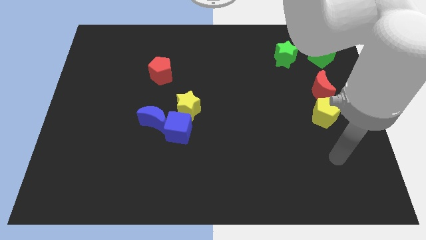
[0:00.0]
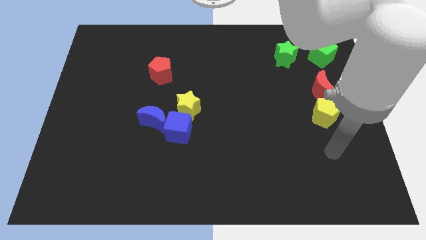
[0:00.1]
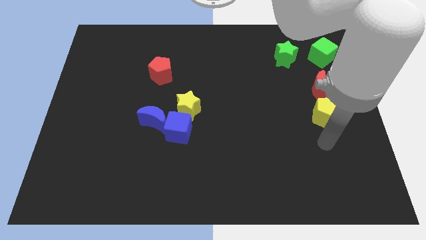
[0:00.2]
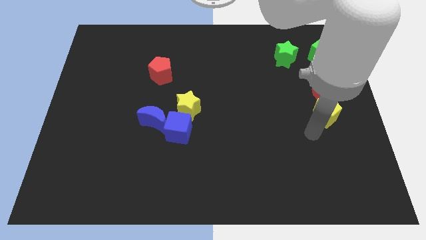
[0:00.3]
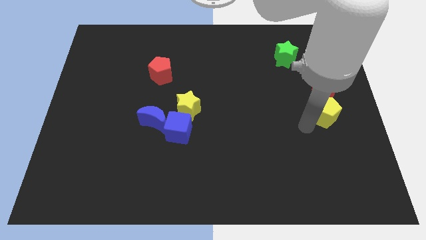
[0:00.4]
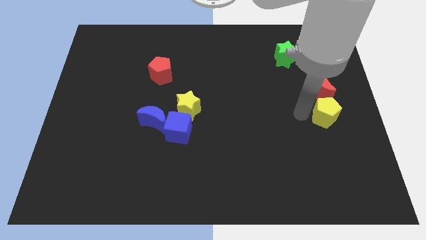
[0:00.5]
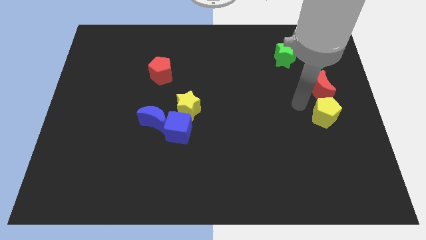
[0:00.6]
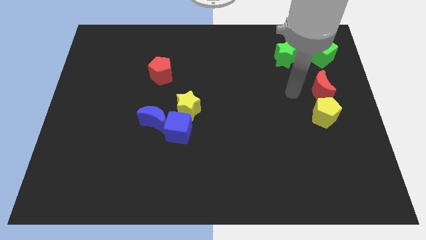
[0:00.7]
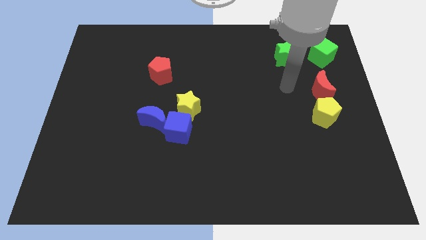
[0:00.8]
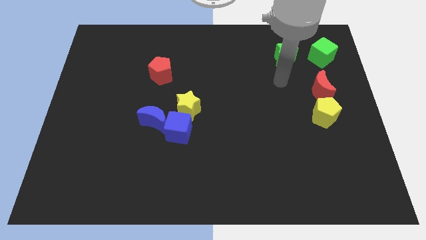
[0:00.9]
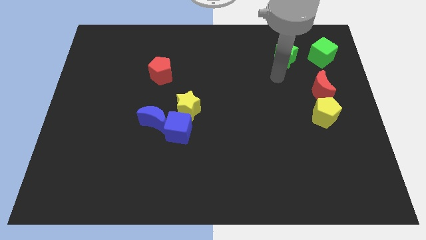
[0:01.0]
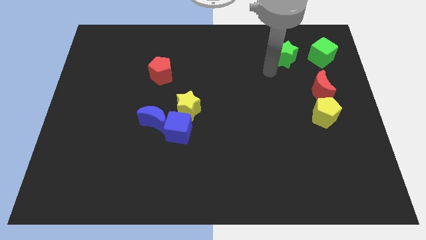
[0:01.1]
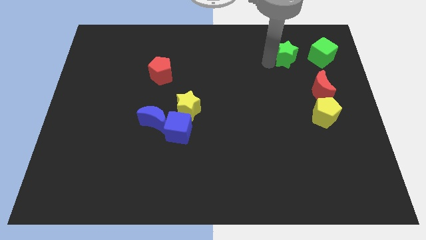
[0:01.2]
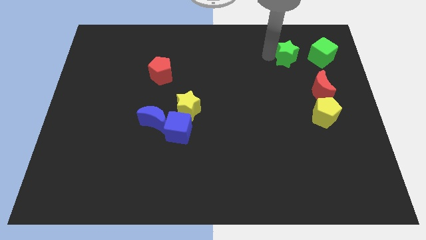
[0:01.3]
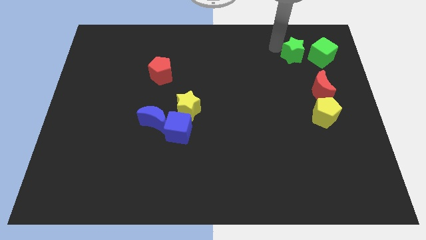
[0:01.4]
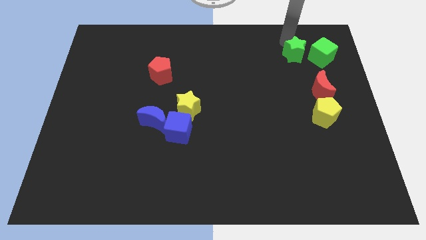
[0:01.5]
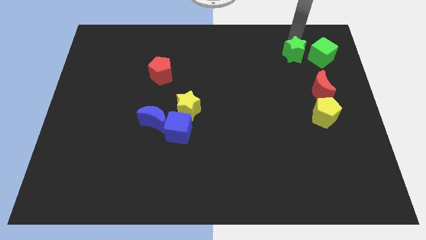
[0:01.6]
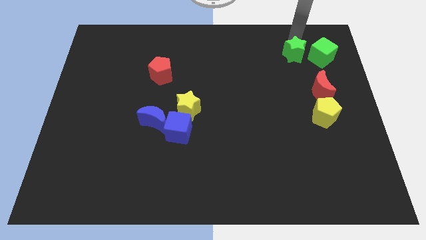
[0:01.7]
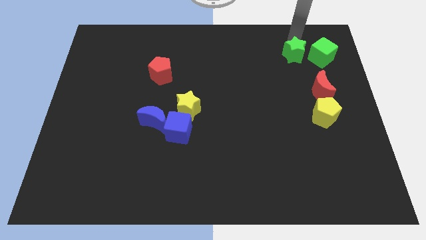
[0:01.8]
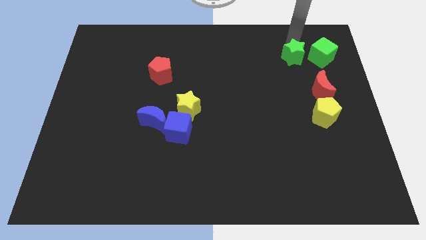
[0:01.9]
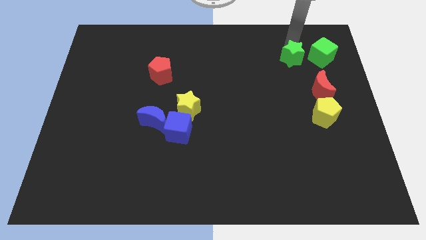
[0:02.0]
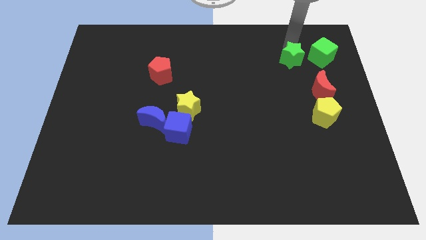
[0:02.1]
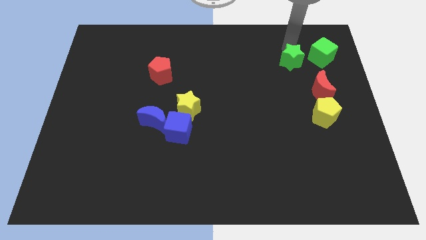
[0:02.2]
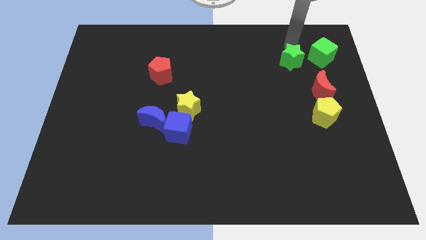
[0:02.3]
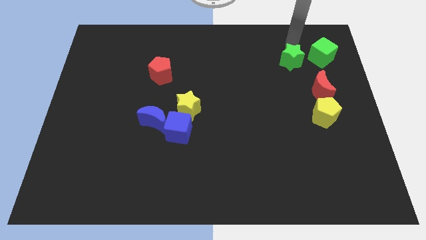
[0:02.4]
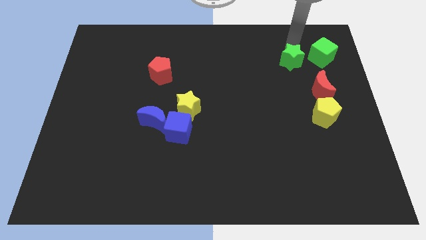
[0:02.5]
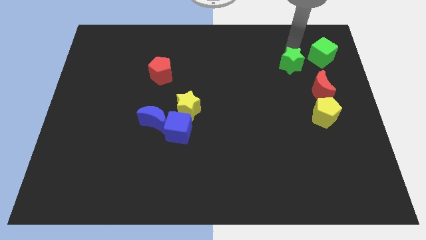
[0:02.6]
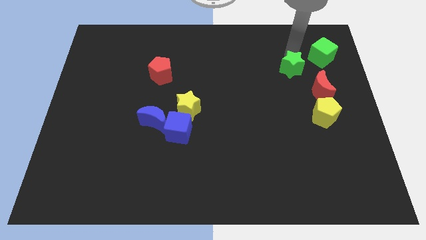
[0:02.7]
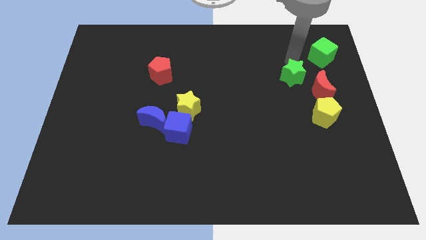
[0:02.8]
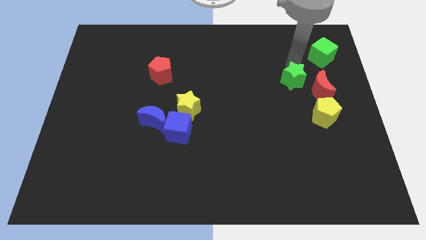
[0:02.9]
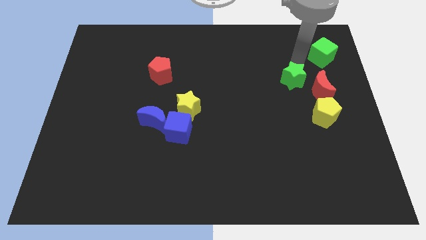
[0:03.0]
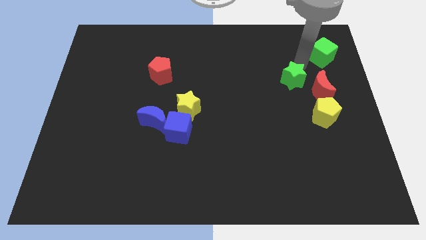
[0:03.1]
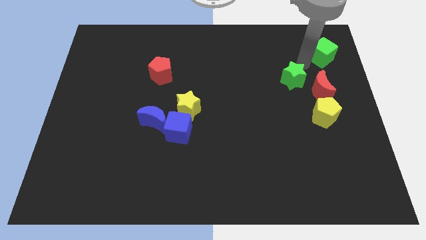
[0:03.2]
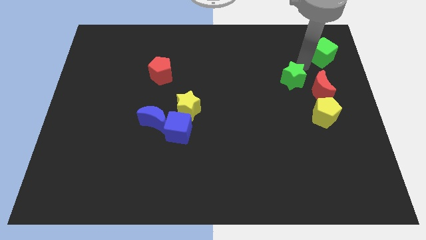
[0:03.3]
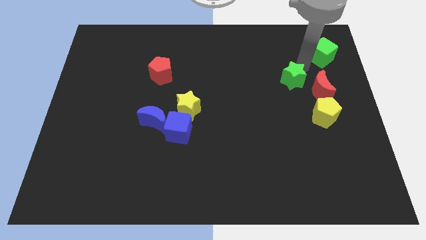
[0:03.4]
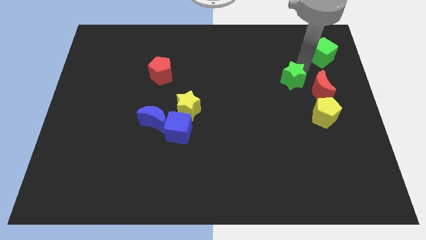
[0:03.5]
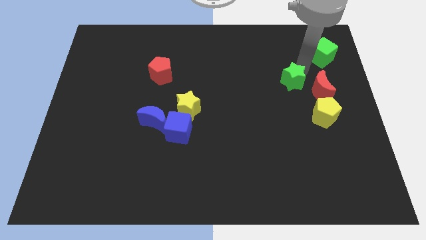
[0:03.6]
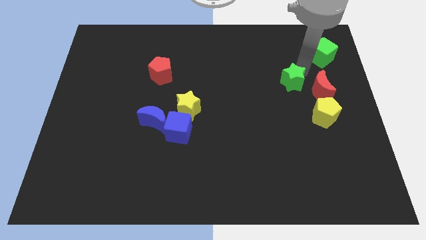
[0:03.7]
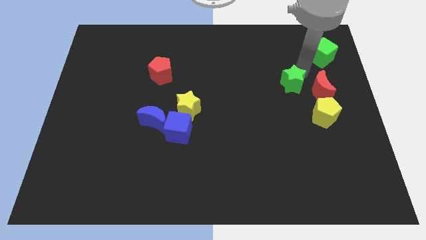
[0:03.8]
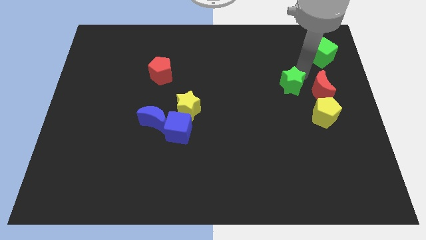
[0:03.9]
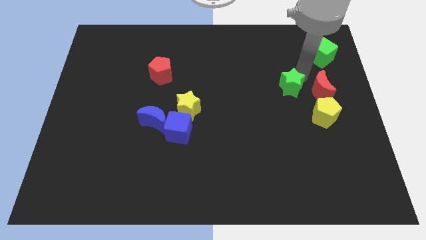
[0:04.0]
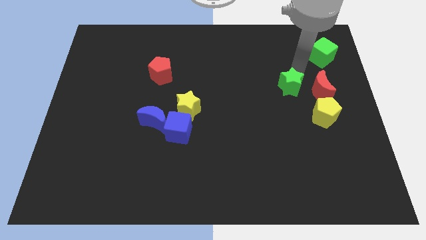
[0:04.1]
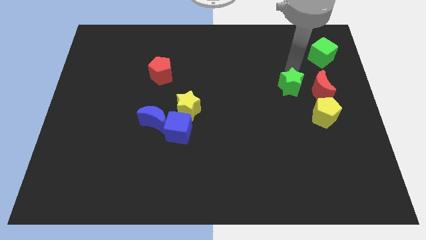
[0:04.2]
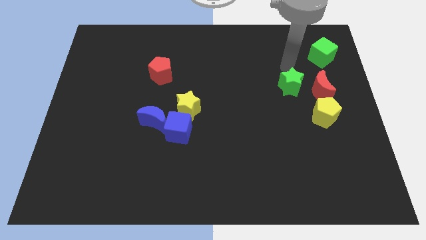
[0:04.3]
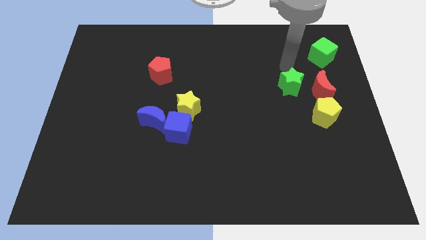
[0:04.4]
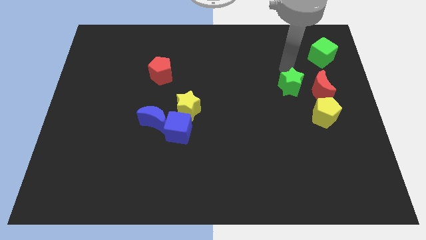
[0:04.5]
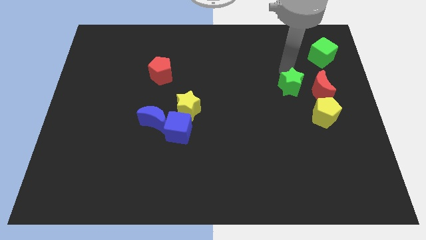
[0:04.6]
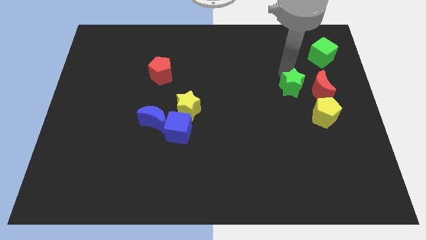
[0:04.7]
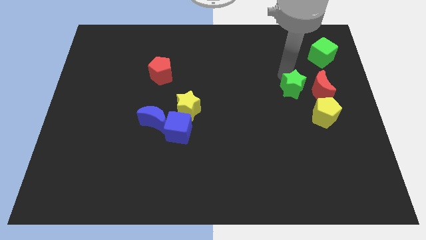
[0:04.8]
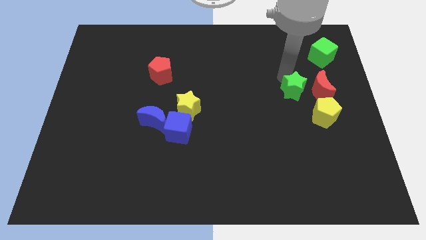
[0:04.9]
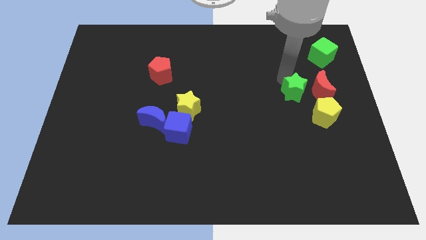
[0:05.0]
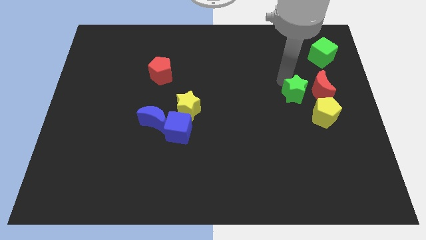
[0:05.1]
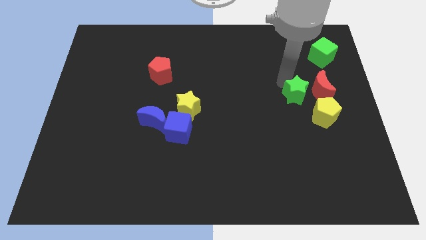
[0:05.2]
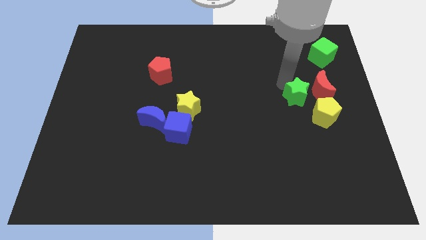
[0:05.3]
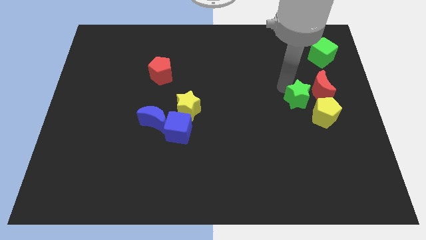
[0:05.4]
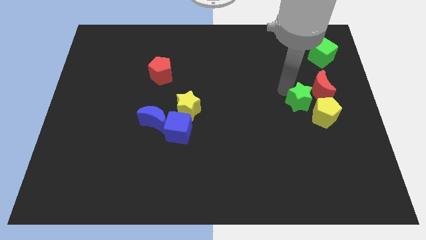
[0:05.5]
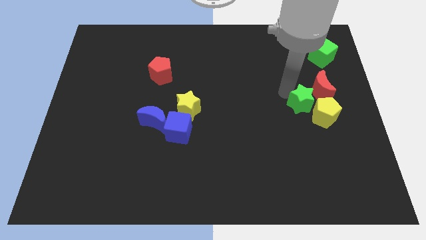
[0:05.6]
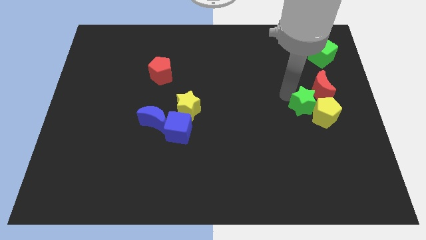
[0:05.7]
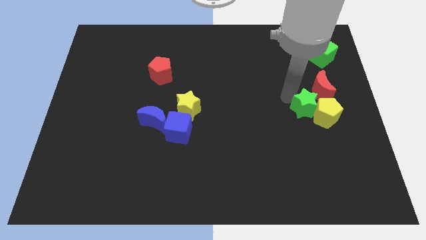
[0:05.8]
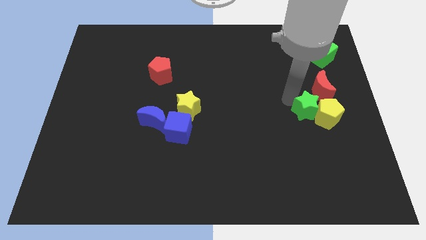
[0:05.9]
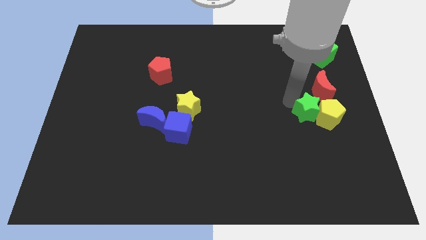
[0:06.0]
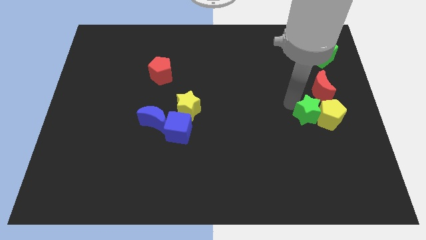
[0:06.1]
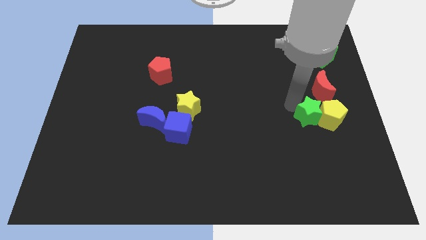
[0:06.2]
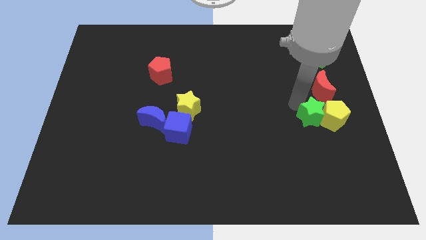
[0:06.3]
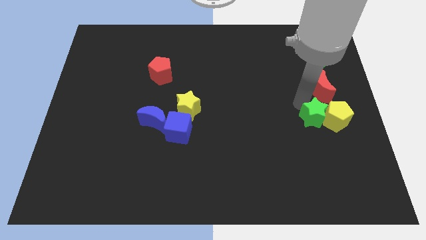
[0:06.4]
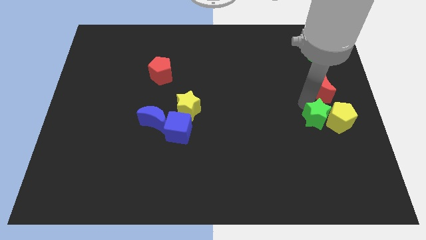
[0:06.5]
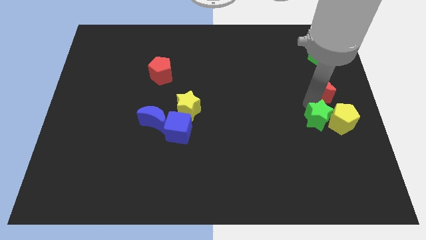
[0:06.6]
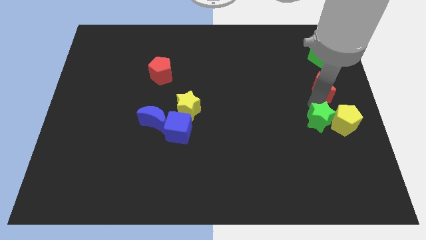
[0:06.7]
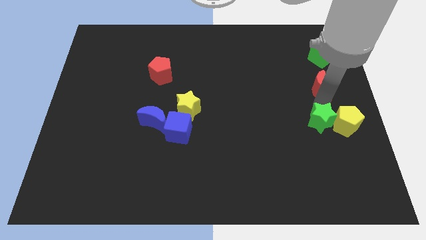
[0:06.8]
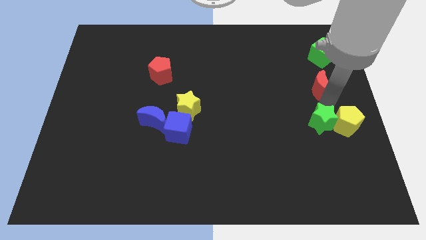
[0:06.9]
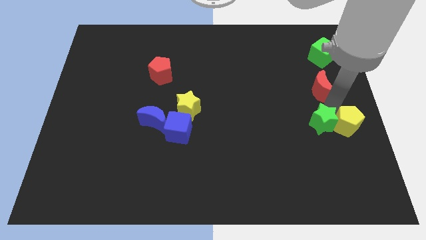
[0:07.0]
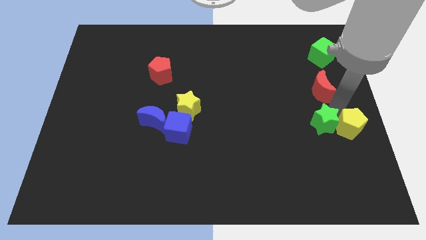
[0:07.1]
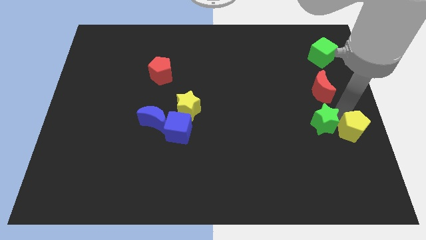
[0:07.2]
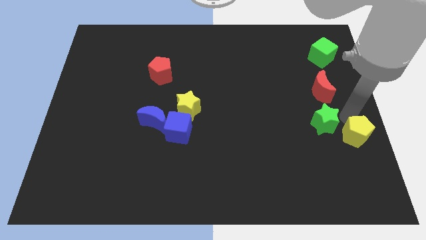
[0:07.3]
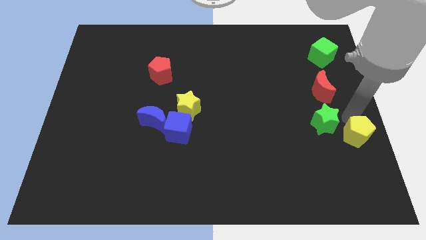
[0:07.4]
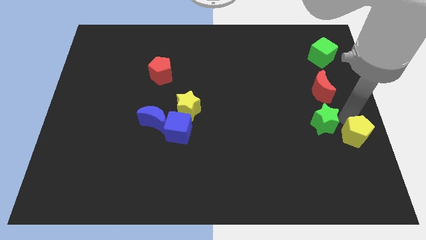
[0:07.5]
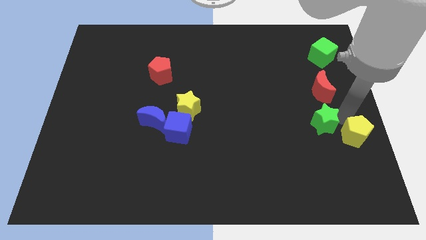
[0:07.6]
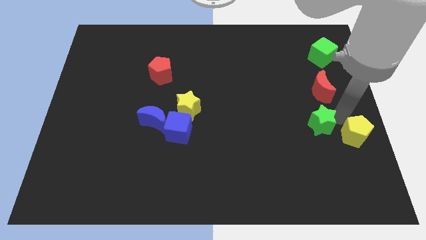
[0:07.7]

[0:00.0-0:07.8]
slide the green star downwards

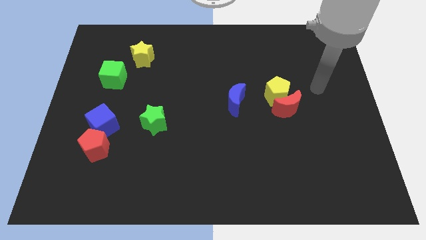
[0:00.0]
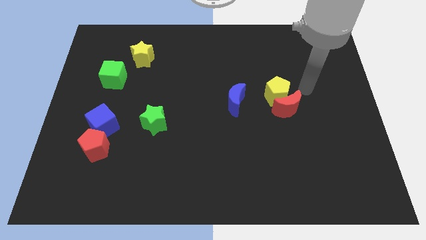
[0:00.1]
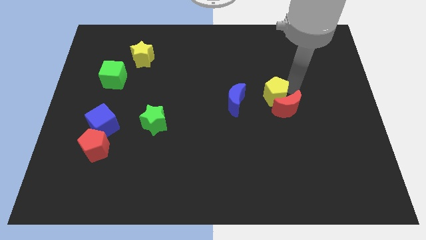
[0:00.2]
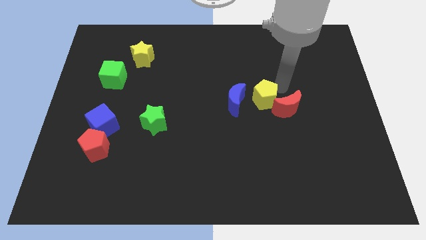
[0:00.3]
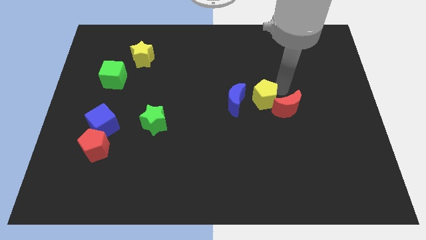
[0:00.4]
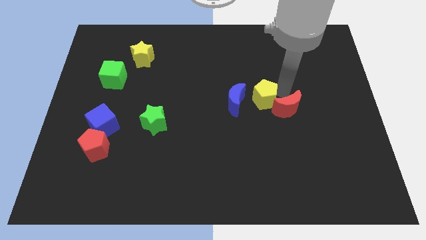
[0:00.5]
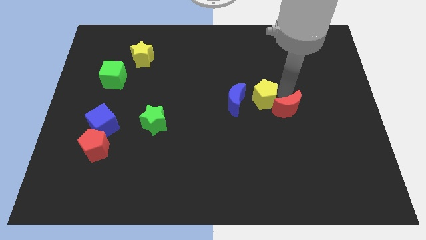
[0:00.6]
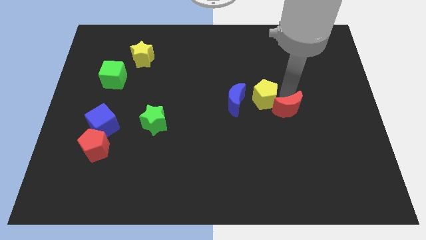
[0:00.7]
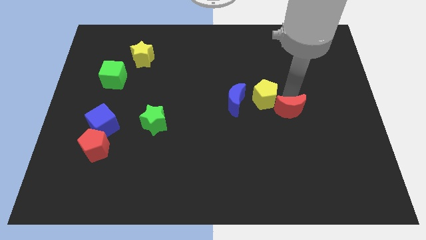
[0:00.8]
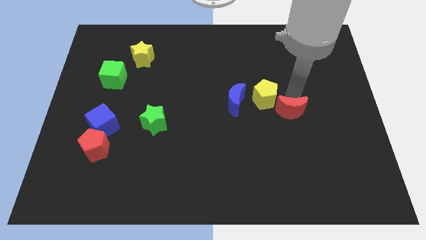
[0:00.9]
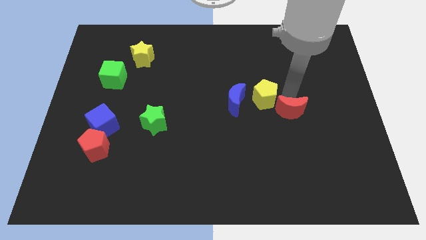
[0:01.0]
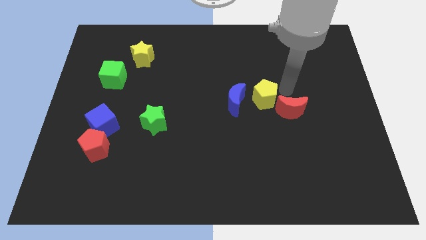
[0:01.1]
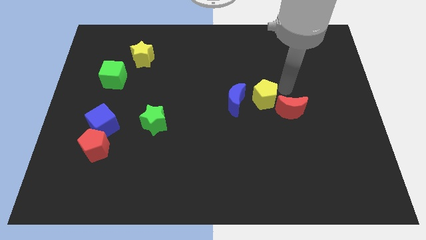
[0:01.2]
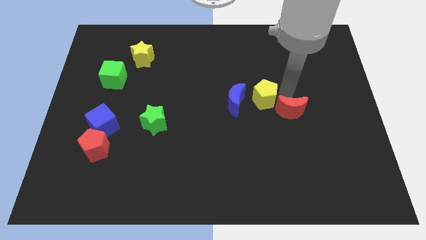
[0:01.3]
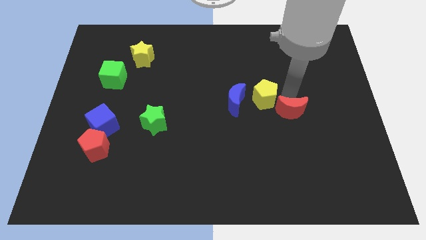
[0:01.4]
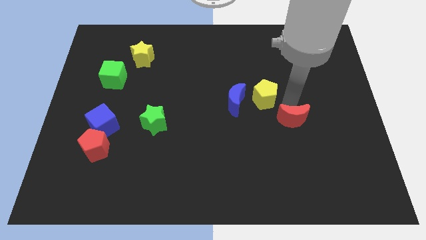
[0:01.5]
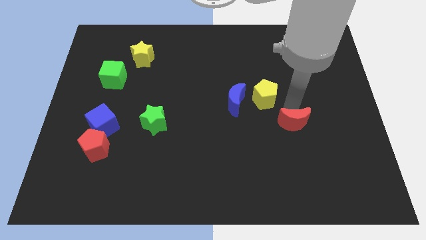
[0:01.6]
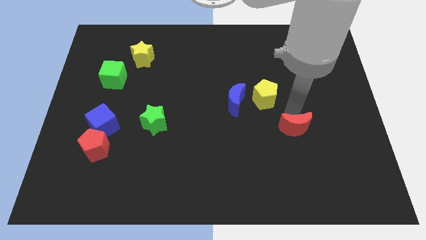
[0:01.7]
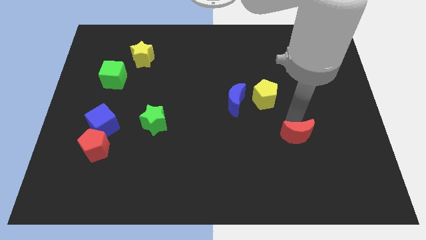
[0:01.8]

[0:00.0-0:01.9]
slightly slide the red moon downwards
